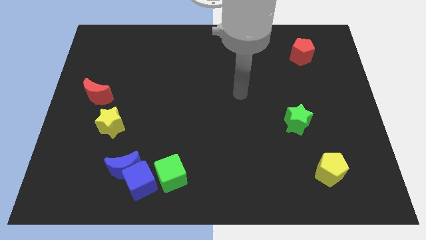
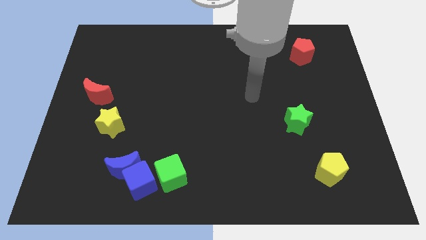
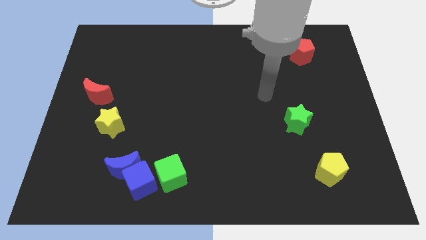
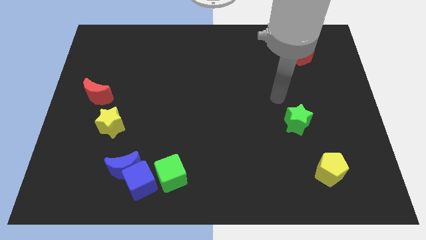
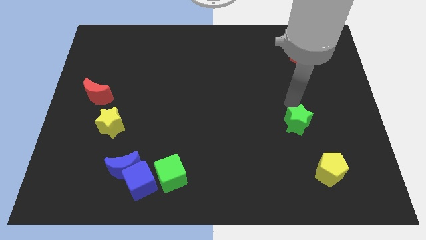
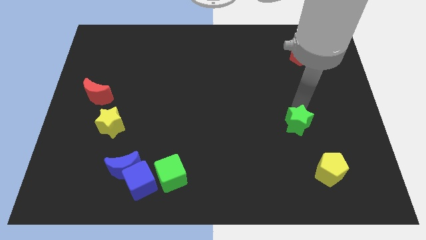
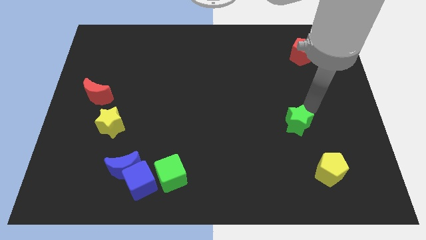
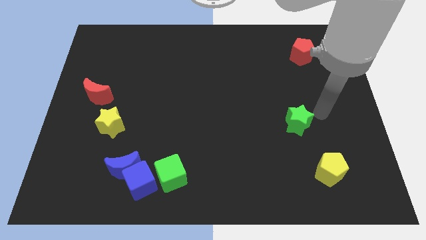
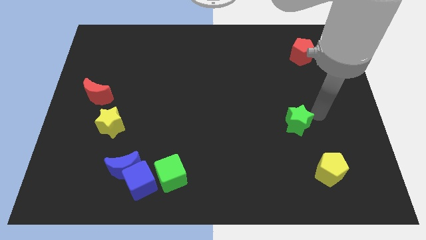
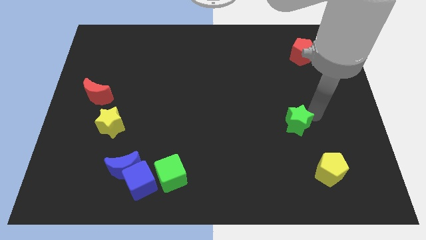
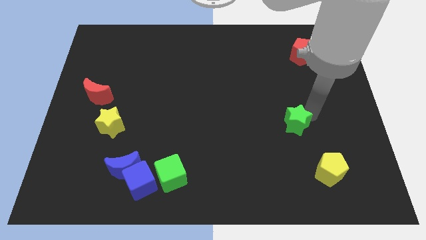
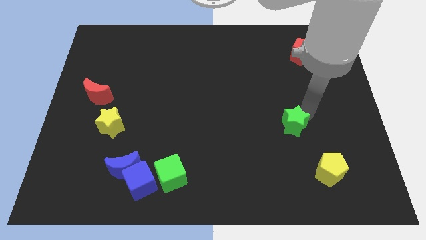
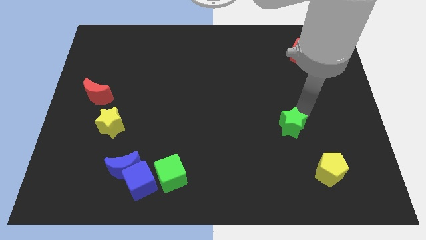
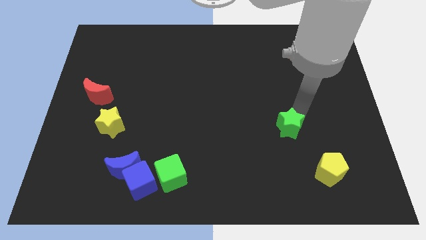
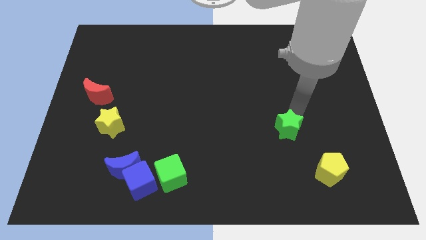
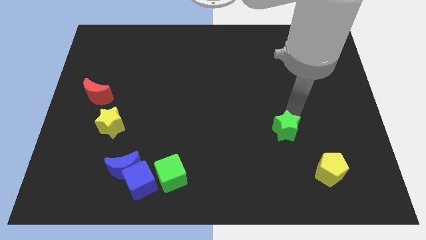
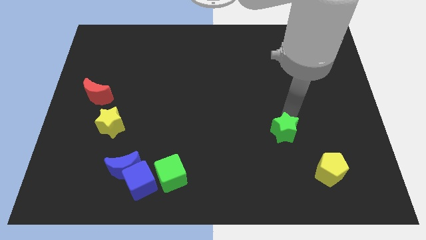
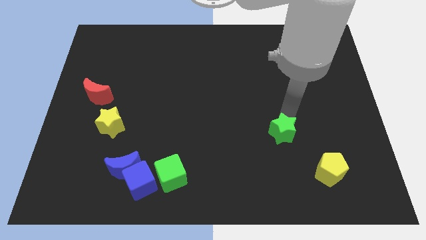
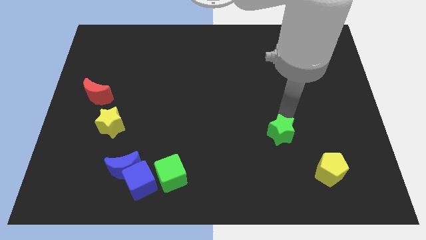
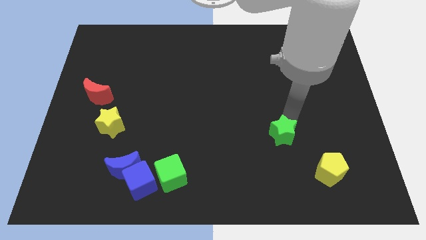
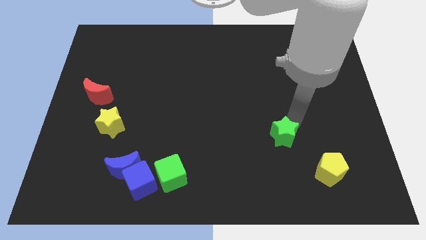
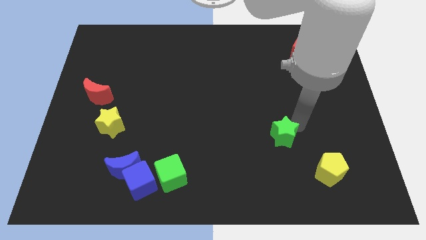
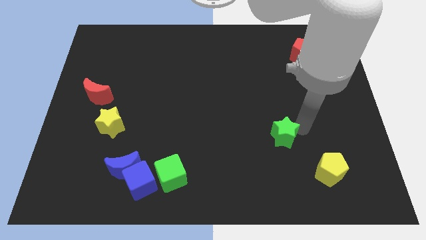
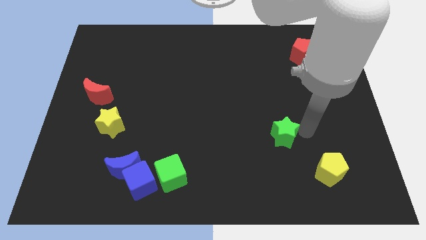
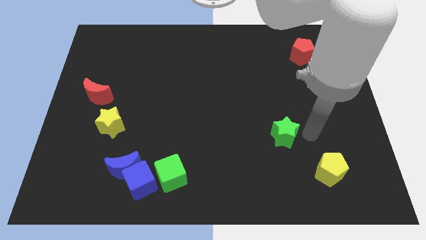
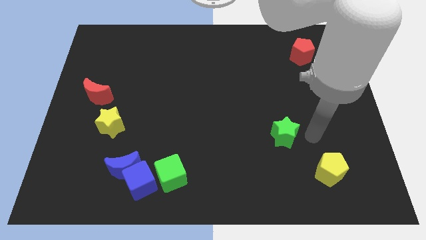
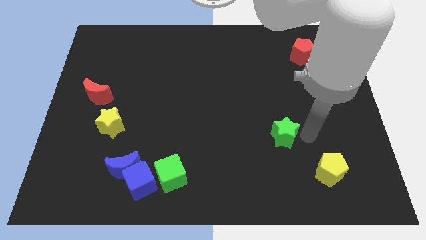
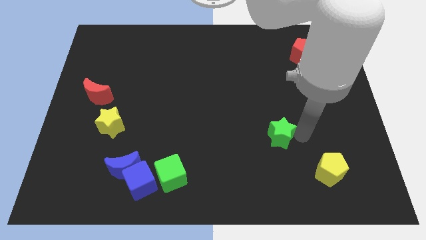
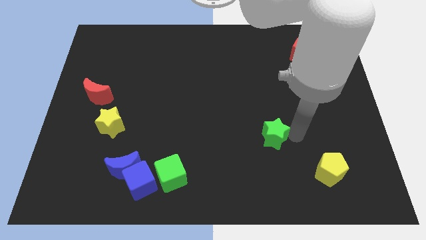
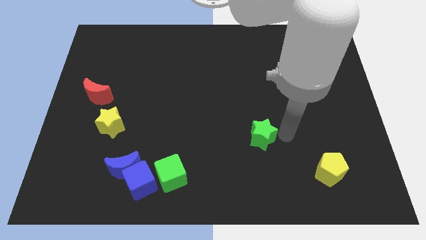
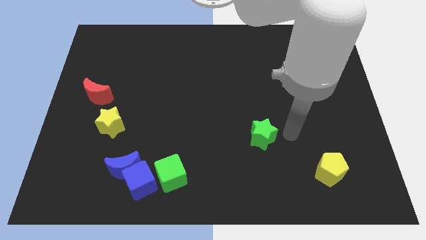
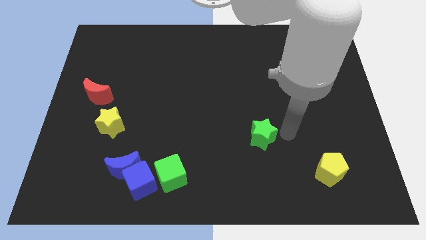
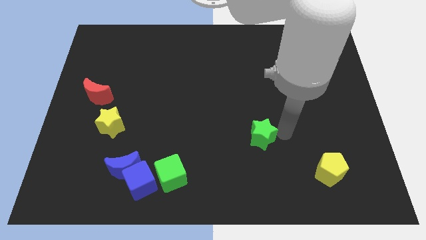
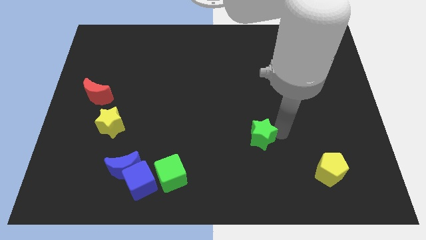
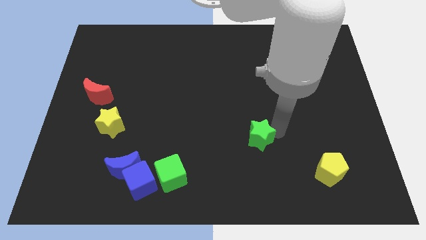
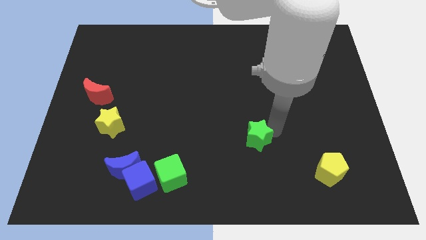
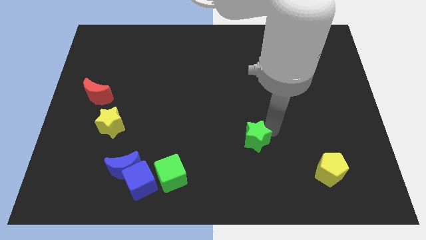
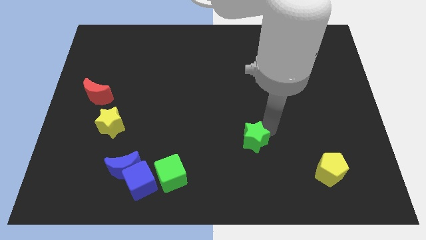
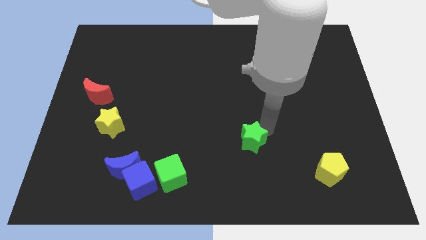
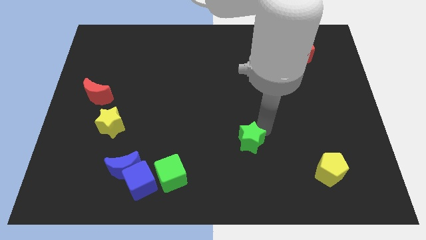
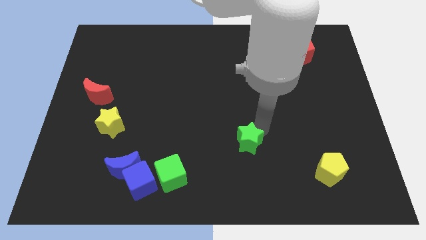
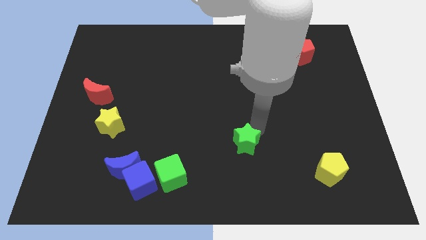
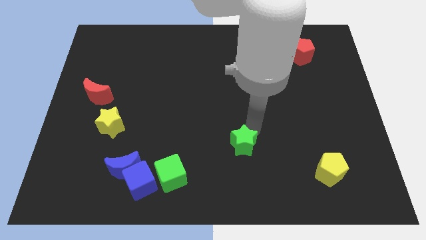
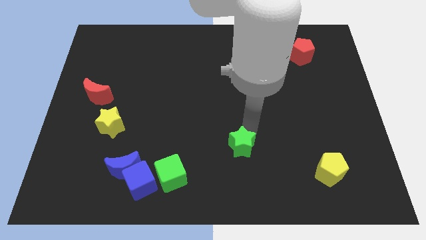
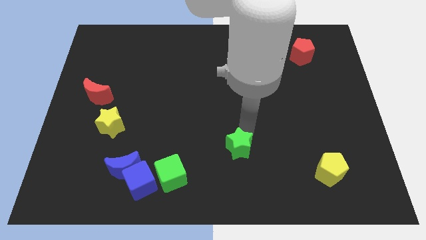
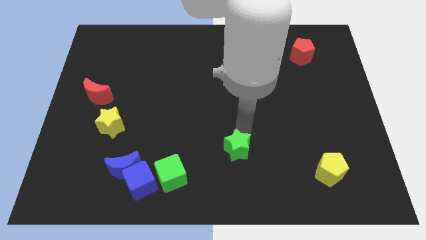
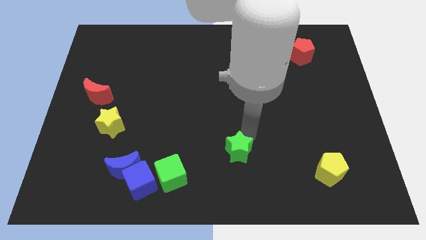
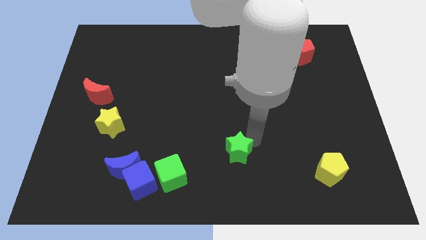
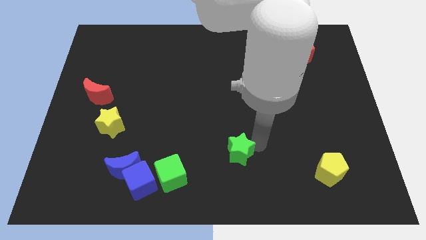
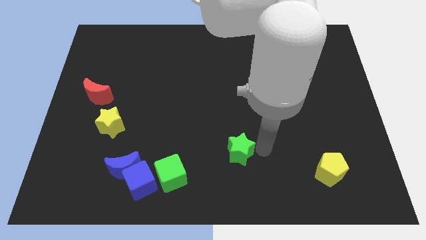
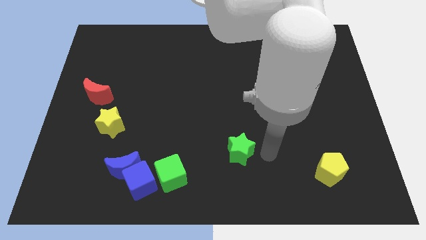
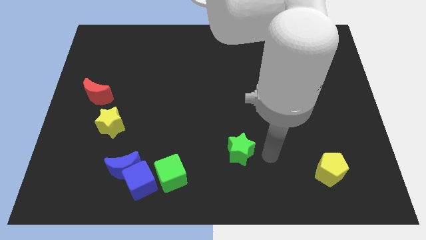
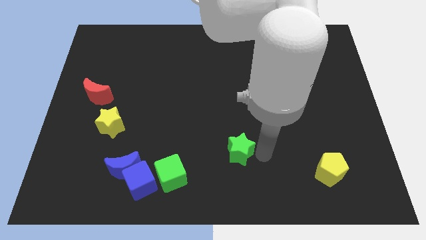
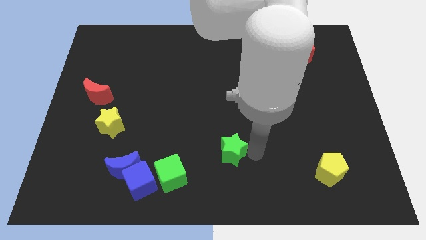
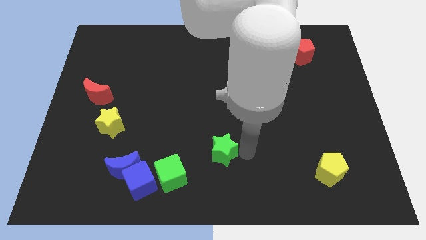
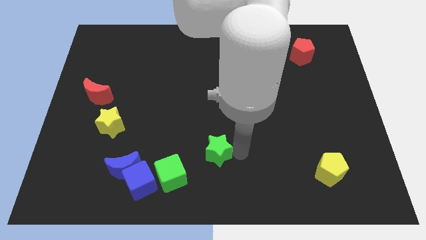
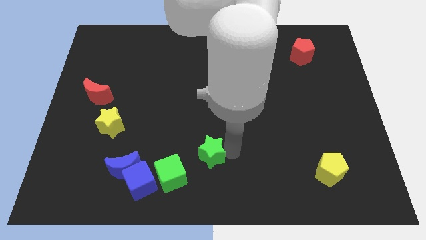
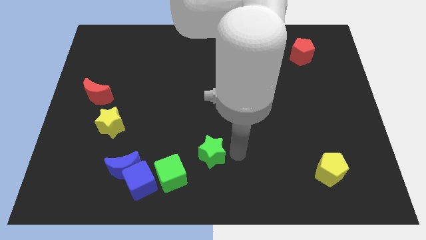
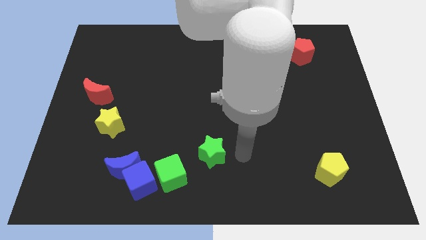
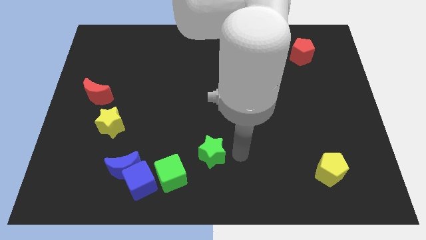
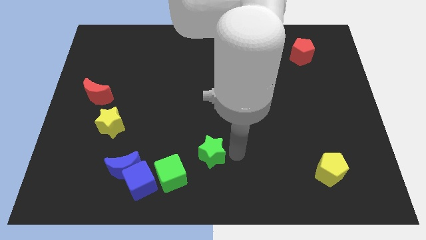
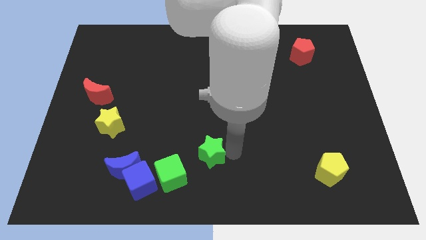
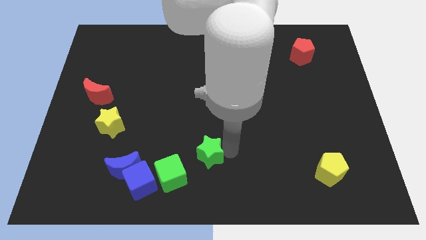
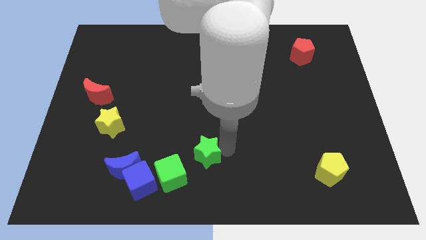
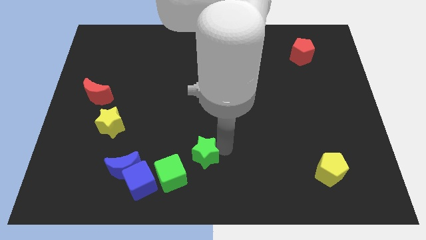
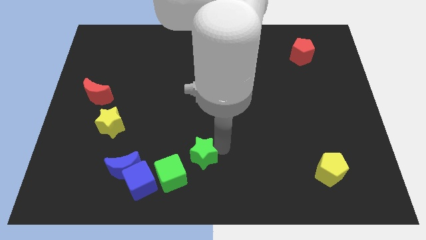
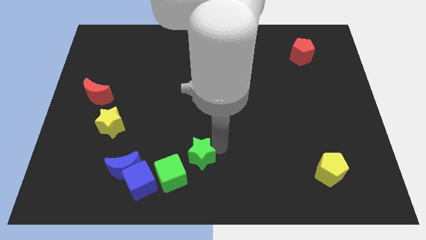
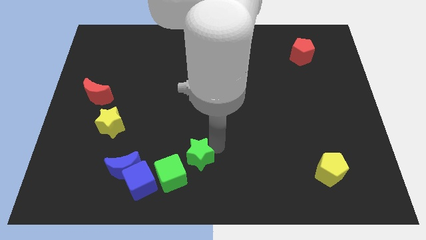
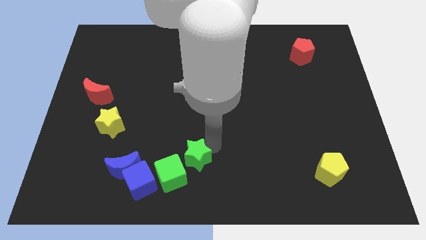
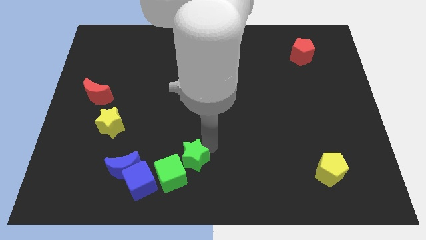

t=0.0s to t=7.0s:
slide the green star to the top right of the blue cube

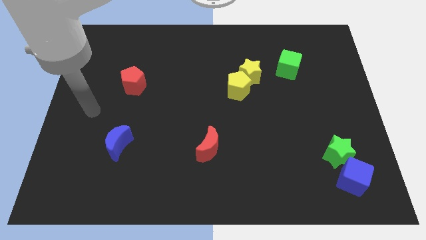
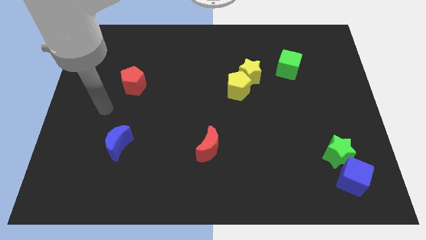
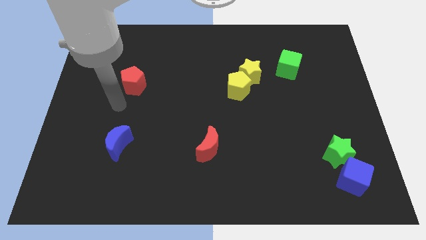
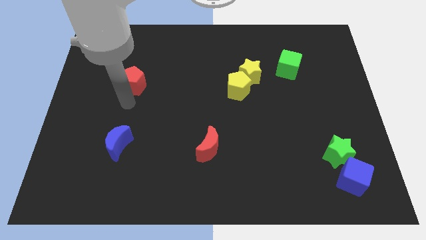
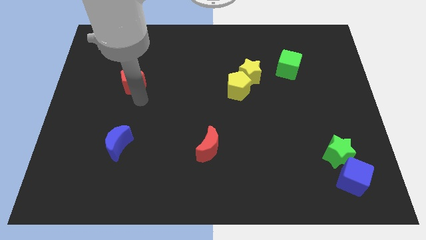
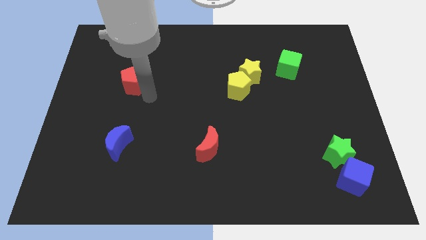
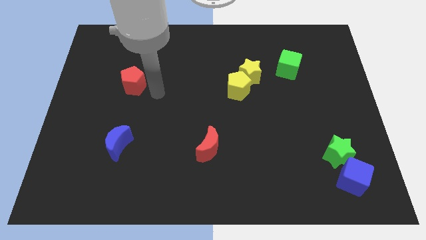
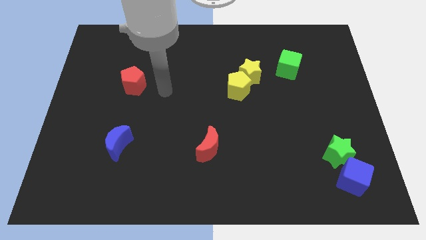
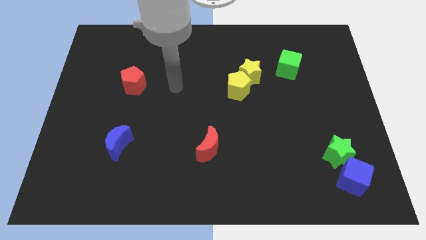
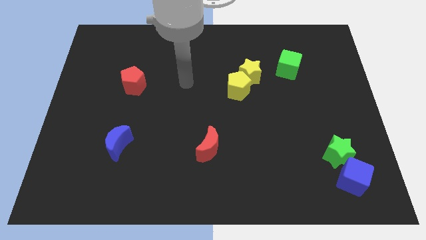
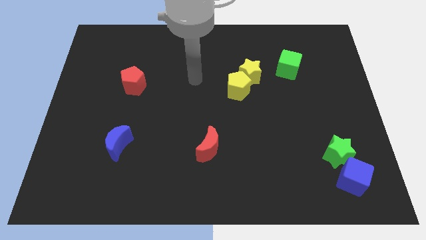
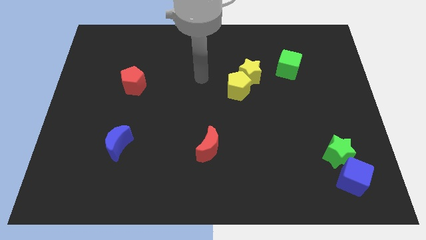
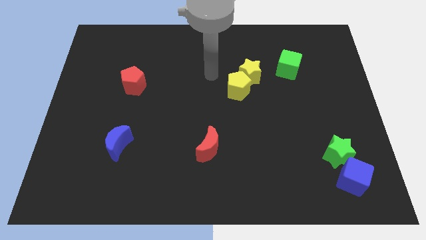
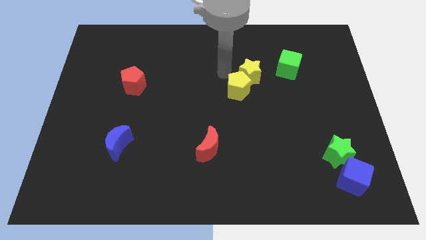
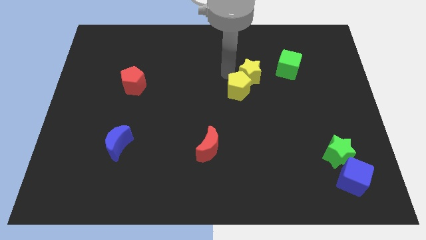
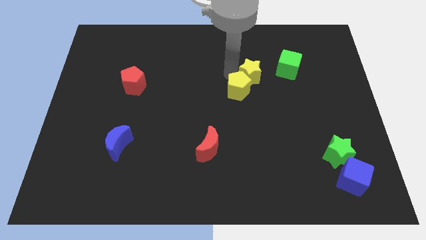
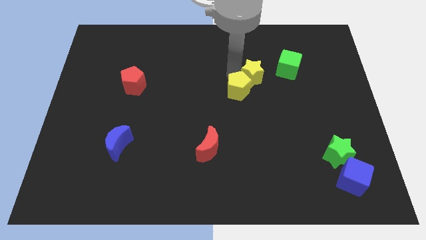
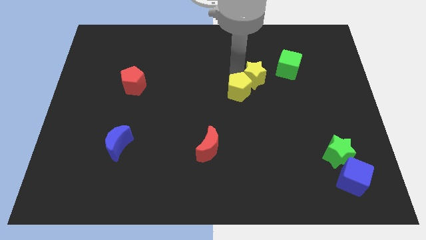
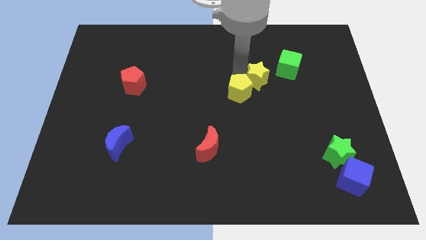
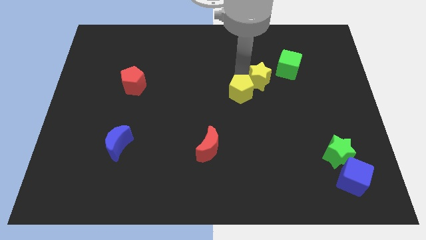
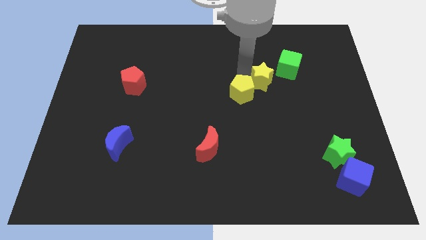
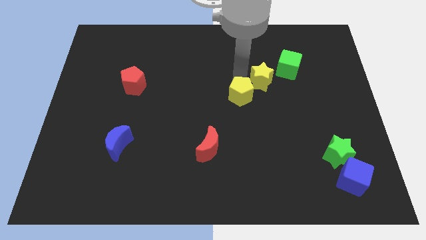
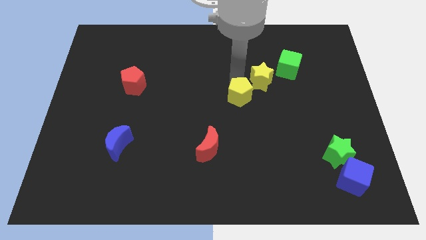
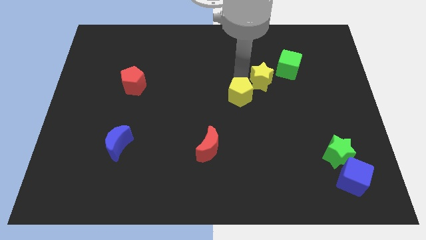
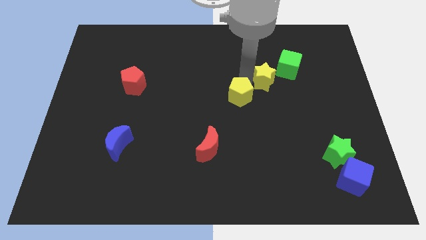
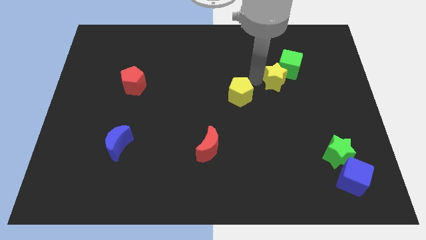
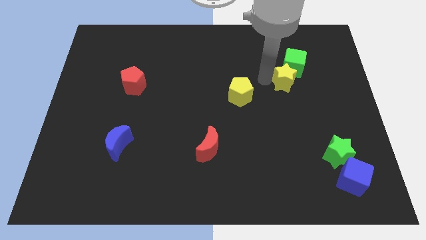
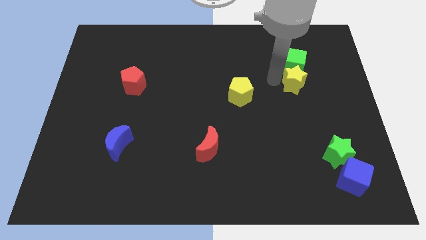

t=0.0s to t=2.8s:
put the yellow star to the bottom right of the green cube
